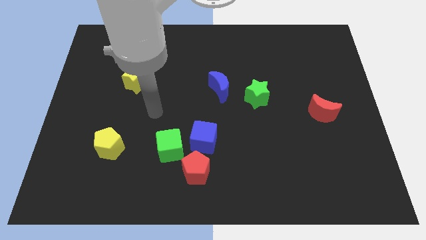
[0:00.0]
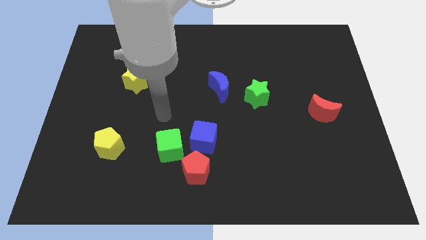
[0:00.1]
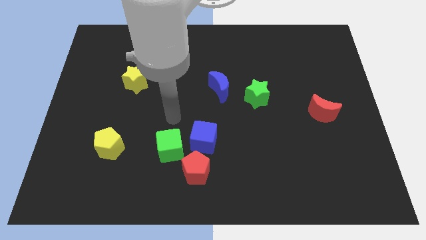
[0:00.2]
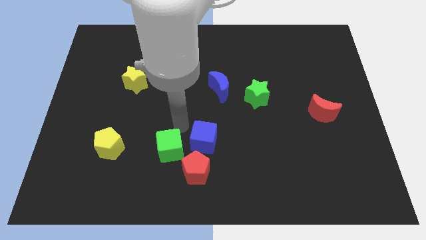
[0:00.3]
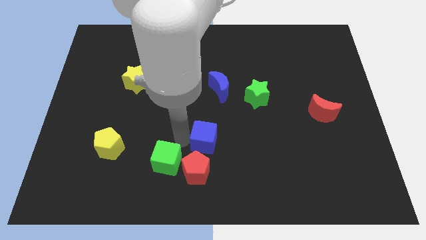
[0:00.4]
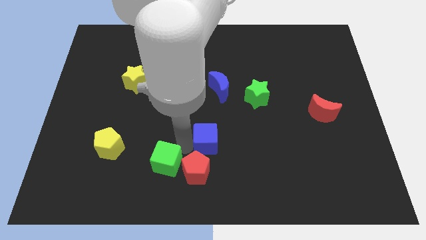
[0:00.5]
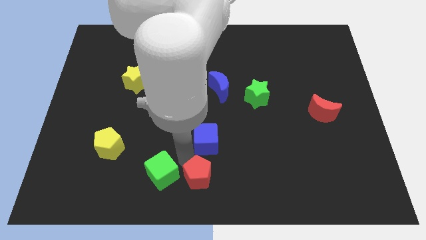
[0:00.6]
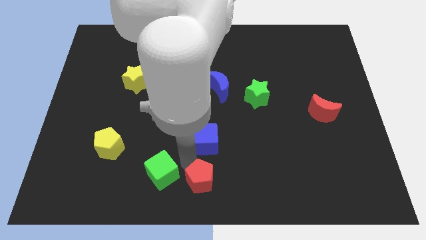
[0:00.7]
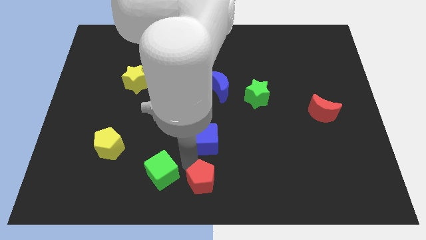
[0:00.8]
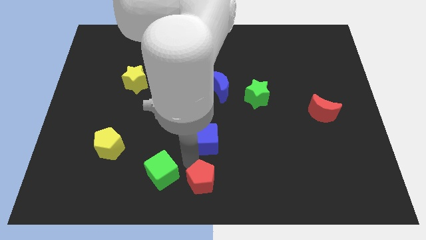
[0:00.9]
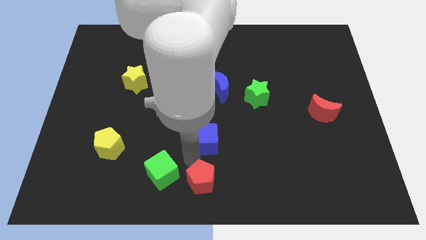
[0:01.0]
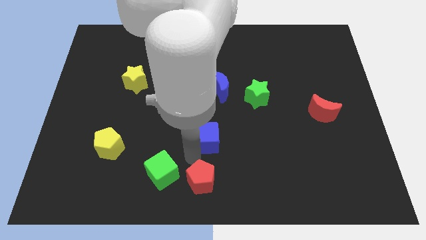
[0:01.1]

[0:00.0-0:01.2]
separate the blue cube from the green cube and red pentagon

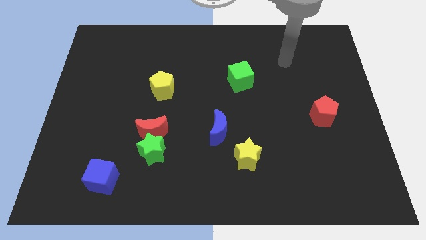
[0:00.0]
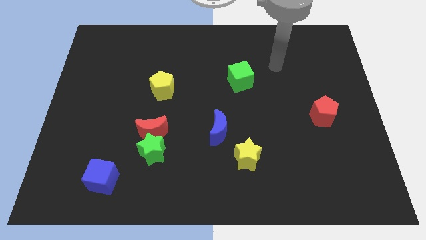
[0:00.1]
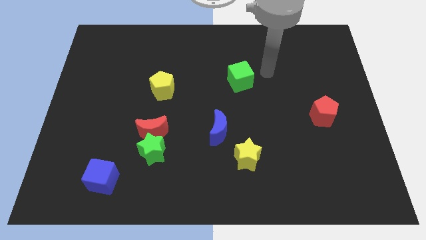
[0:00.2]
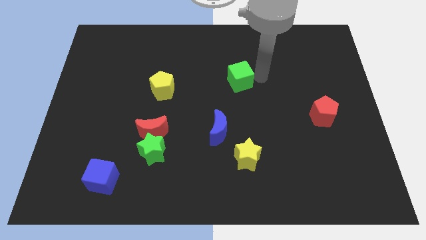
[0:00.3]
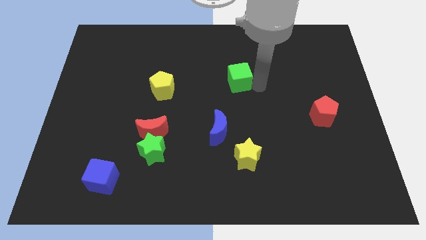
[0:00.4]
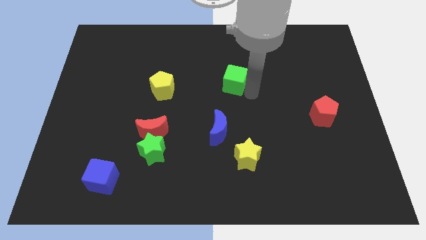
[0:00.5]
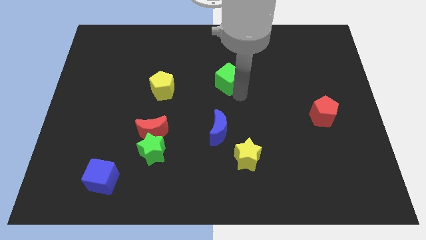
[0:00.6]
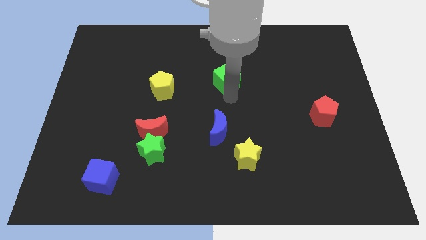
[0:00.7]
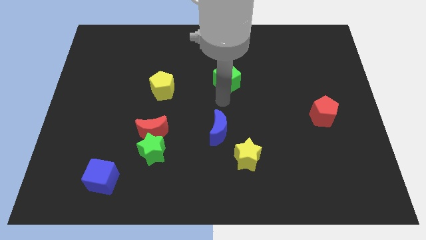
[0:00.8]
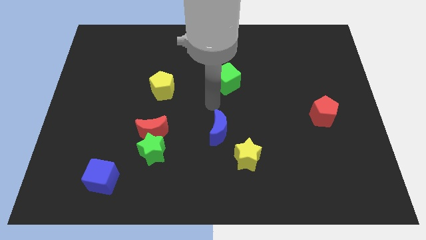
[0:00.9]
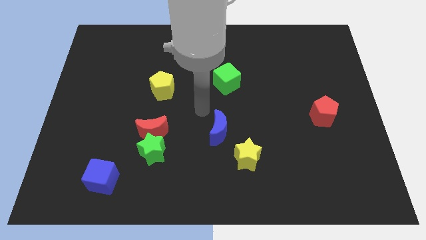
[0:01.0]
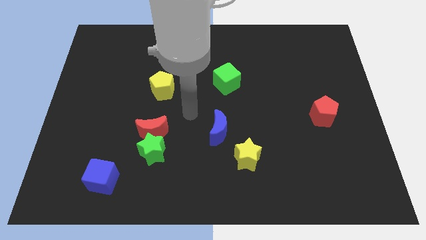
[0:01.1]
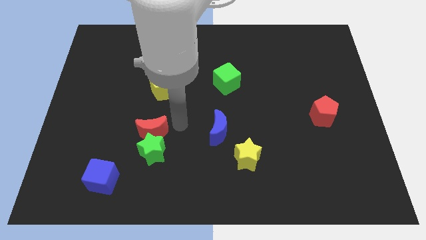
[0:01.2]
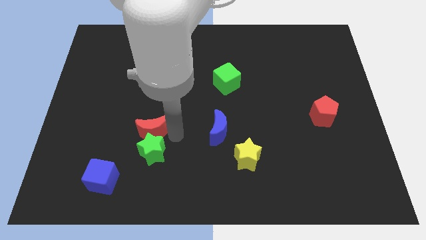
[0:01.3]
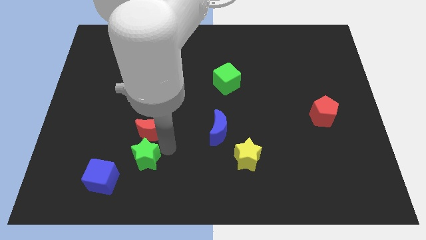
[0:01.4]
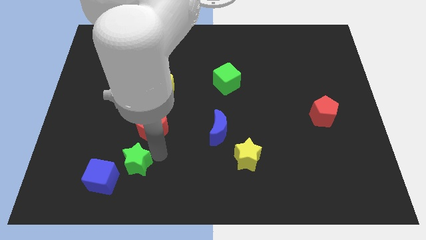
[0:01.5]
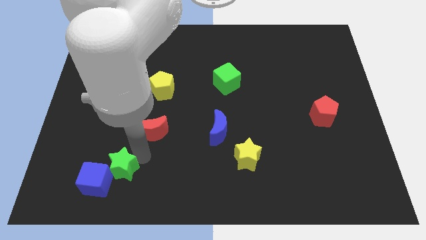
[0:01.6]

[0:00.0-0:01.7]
move the red moon away from the green star

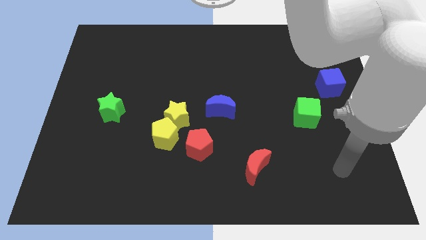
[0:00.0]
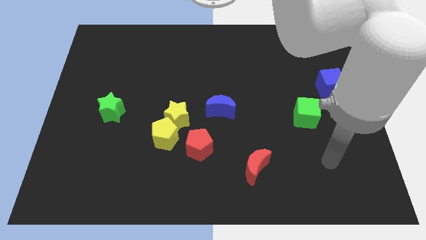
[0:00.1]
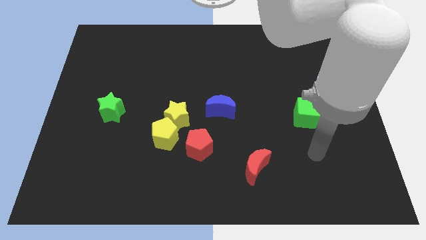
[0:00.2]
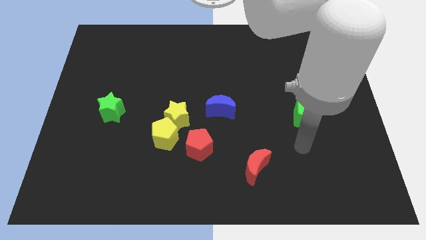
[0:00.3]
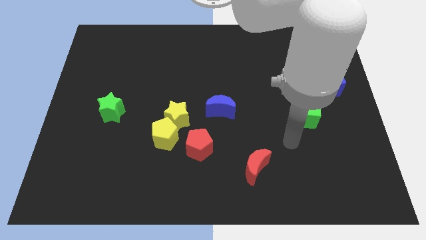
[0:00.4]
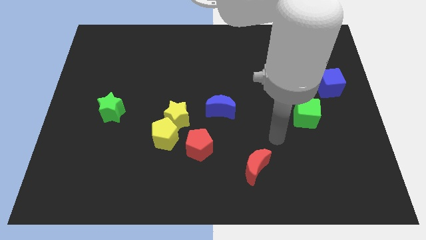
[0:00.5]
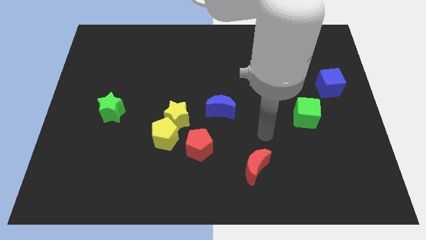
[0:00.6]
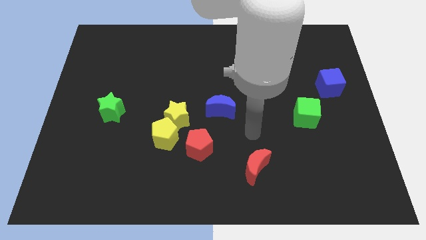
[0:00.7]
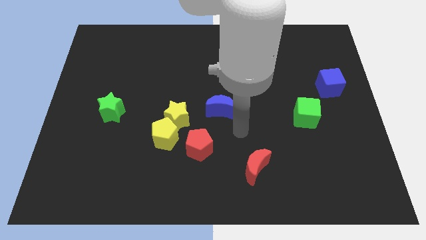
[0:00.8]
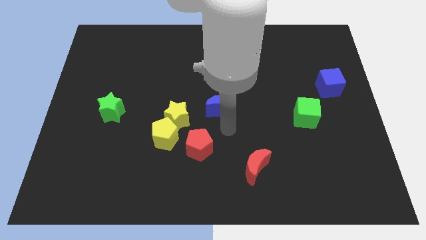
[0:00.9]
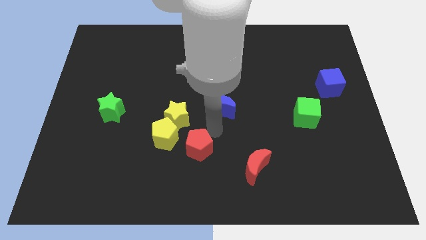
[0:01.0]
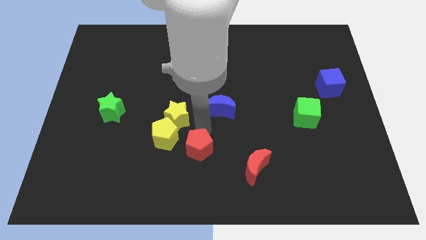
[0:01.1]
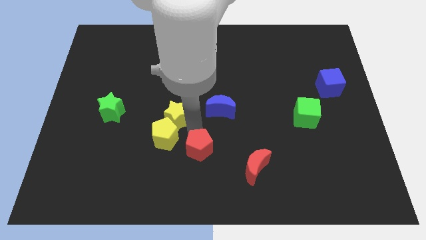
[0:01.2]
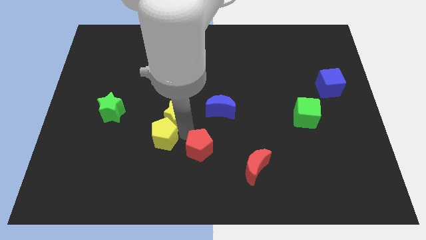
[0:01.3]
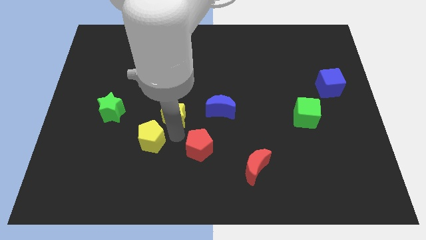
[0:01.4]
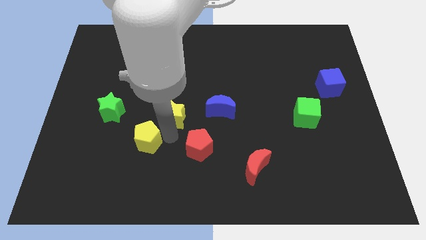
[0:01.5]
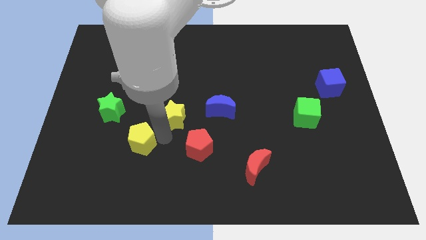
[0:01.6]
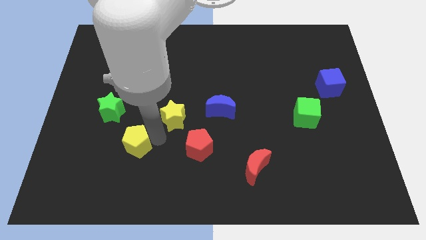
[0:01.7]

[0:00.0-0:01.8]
separate the yellow pentagon from the yellow star and red pentagon

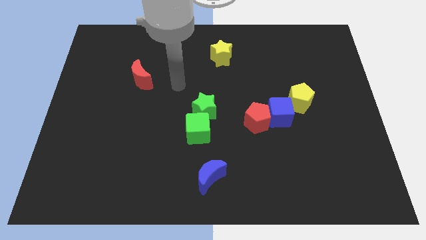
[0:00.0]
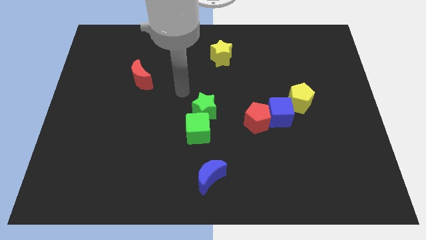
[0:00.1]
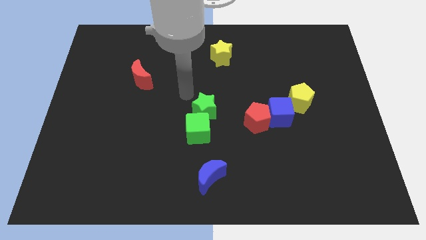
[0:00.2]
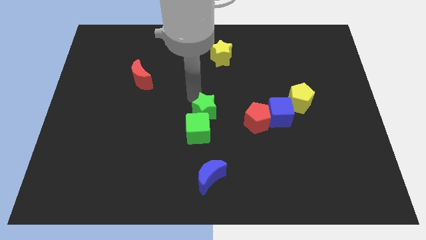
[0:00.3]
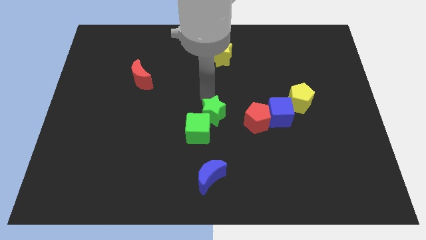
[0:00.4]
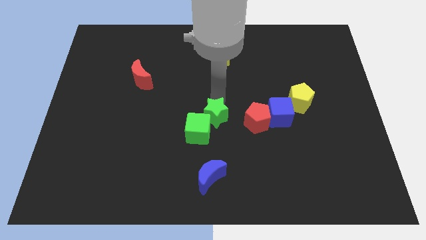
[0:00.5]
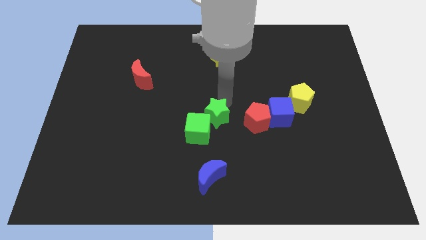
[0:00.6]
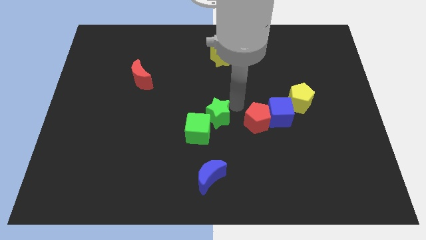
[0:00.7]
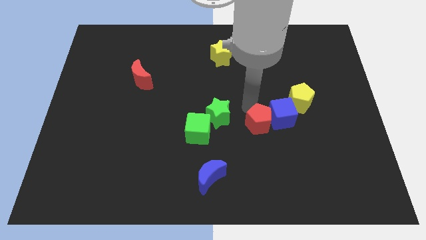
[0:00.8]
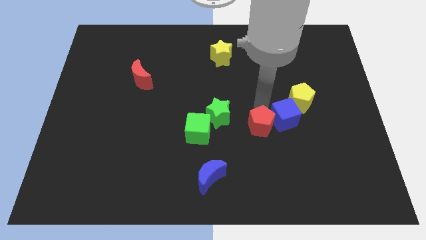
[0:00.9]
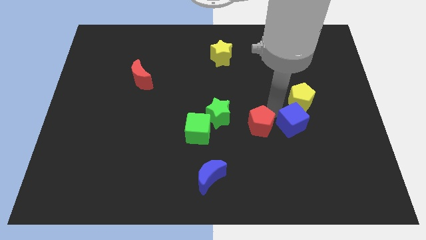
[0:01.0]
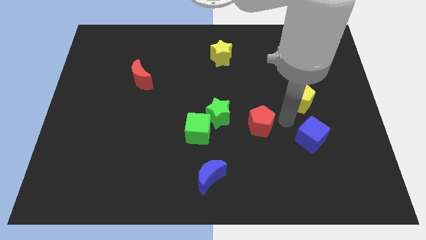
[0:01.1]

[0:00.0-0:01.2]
move the red pentagon away from the blue cube

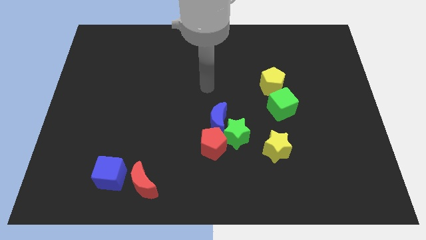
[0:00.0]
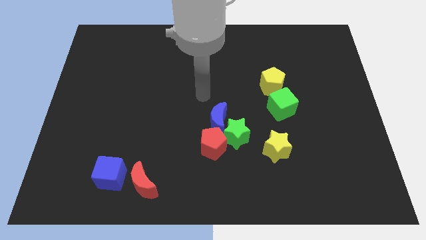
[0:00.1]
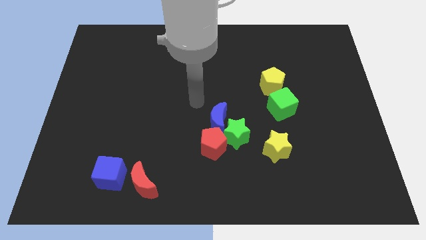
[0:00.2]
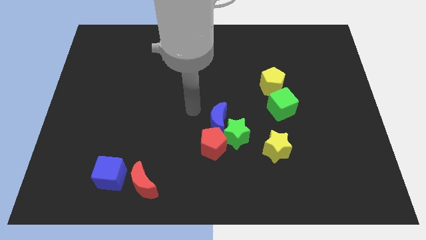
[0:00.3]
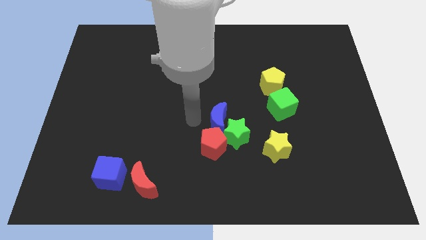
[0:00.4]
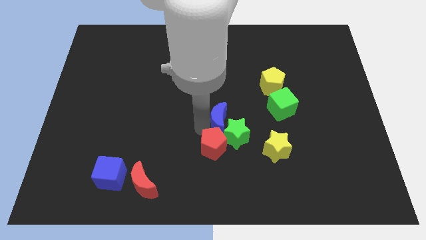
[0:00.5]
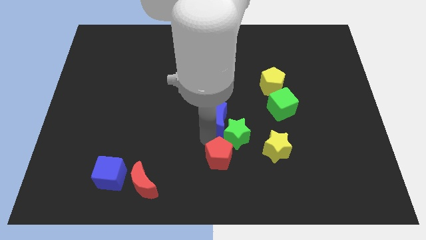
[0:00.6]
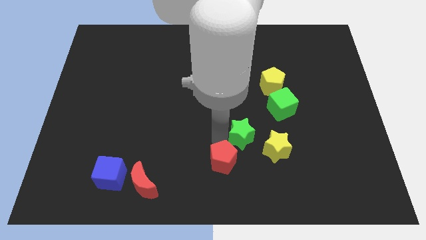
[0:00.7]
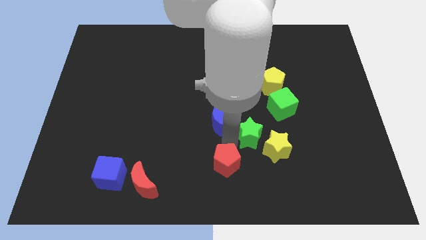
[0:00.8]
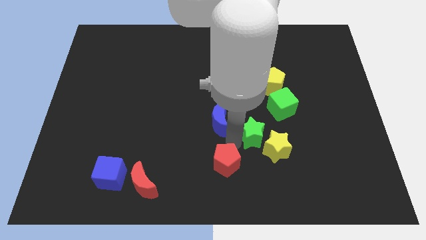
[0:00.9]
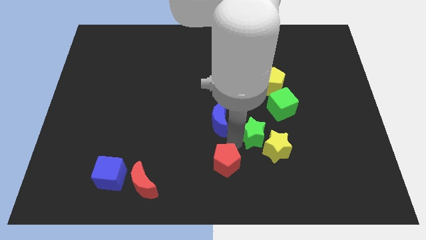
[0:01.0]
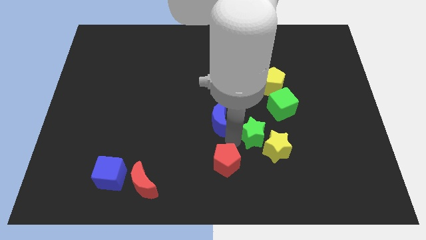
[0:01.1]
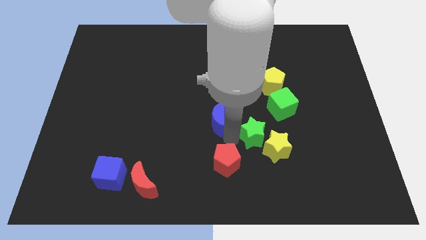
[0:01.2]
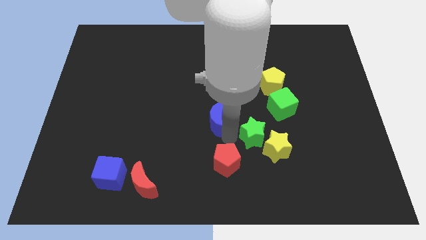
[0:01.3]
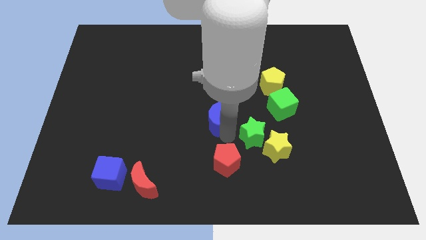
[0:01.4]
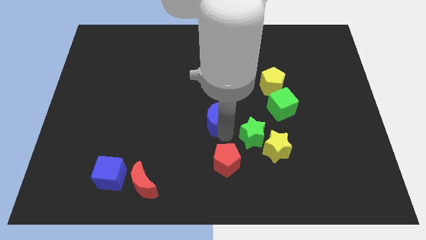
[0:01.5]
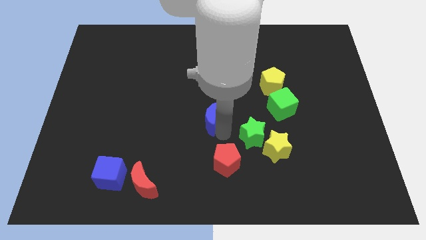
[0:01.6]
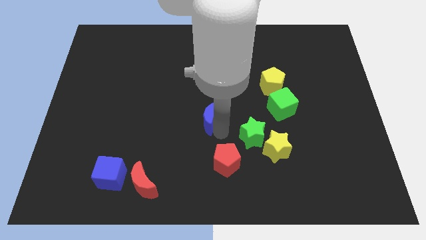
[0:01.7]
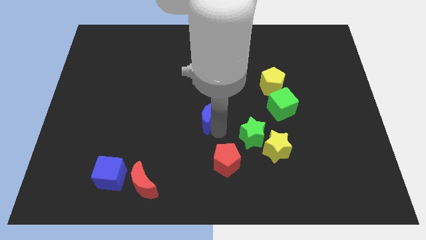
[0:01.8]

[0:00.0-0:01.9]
separate the blue moon from the green star and red pentagon

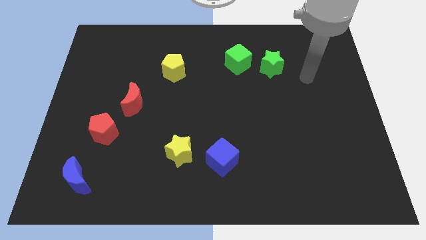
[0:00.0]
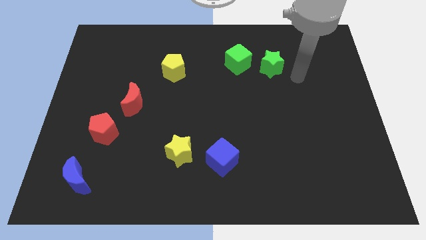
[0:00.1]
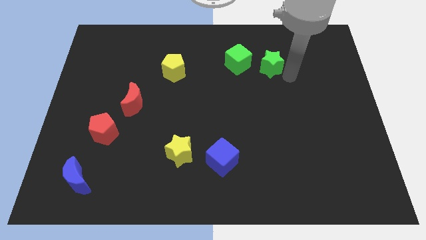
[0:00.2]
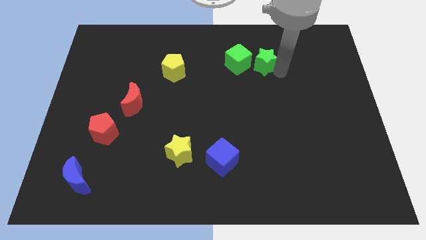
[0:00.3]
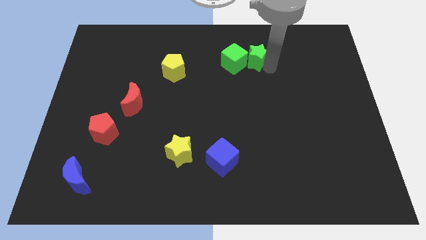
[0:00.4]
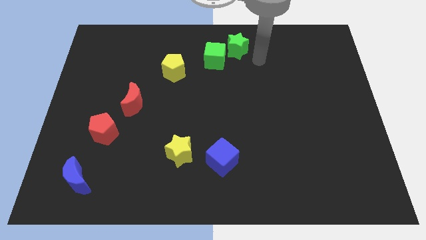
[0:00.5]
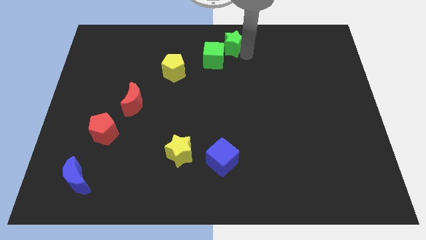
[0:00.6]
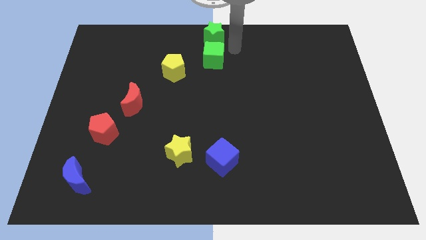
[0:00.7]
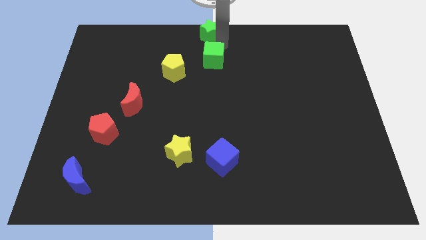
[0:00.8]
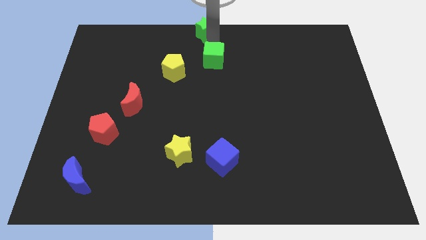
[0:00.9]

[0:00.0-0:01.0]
pull the green cube apart from the green star

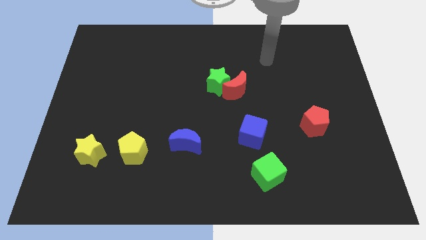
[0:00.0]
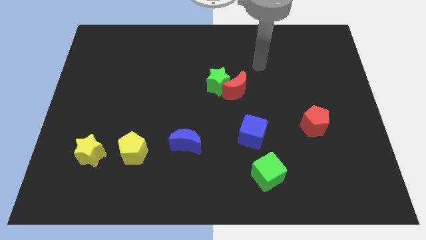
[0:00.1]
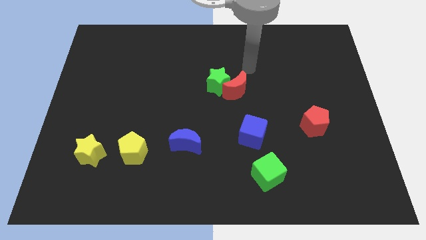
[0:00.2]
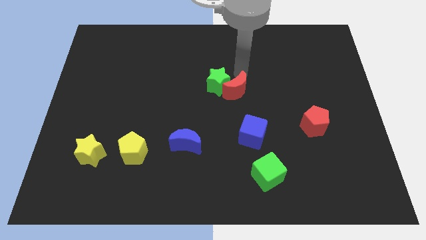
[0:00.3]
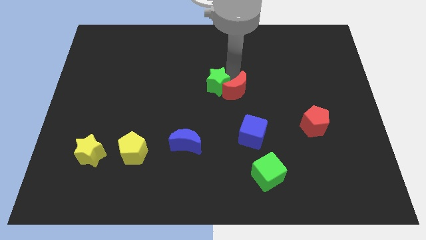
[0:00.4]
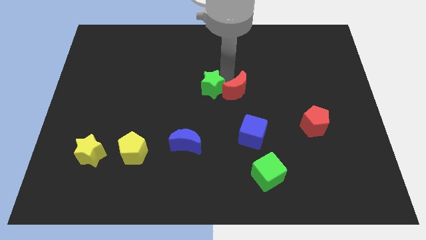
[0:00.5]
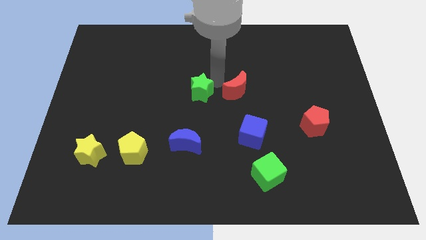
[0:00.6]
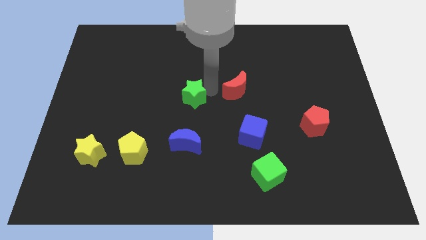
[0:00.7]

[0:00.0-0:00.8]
separate the red moon from the green star
